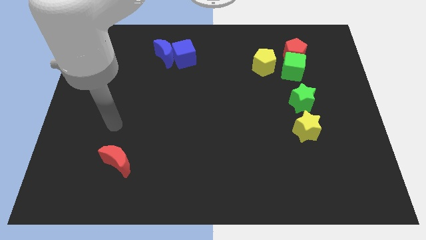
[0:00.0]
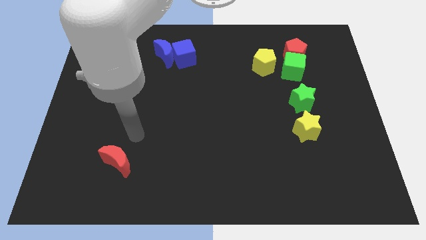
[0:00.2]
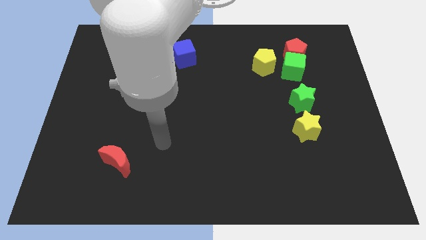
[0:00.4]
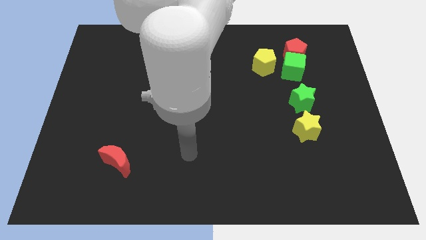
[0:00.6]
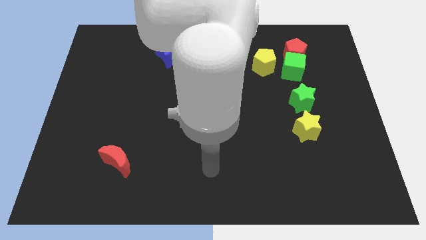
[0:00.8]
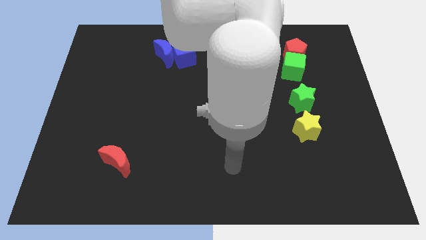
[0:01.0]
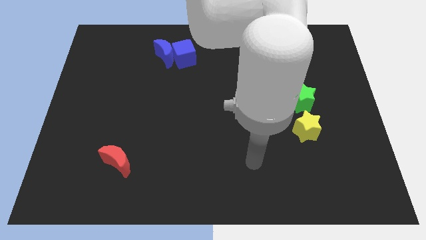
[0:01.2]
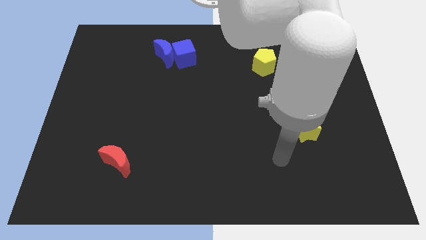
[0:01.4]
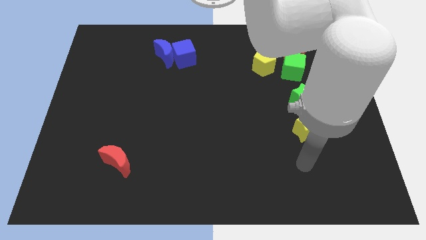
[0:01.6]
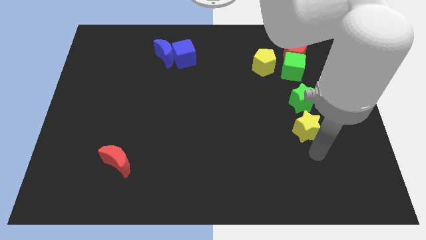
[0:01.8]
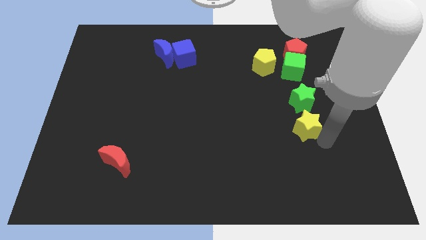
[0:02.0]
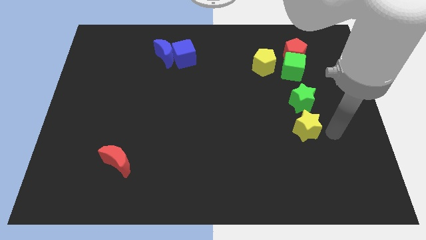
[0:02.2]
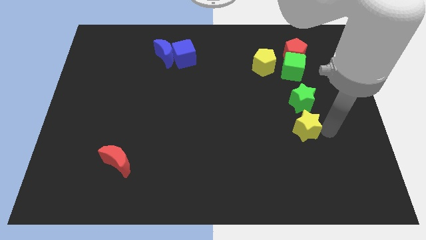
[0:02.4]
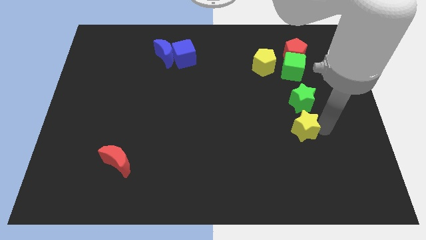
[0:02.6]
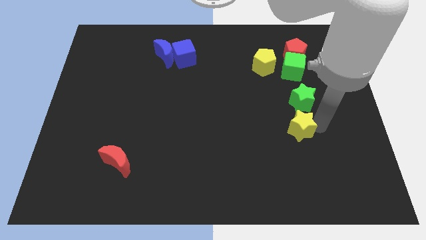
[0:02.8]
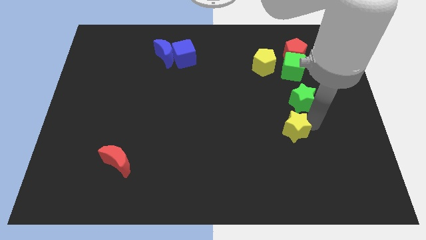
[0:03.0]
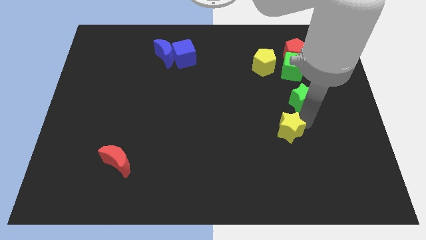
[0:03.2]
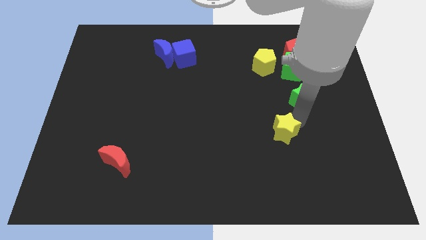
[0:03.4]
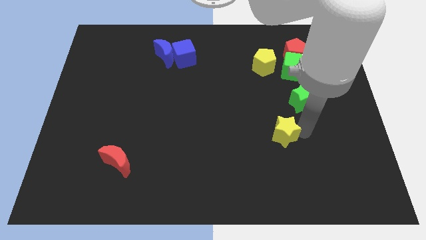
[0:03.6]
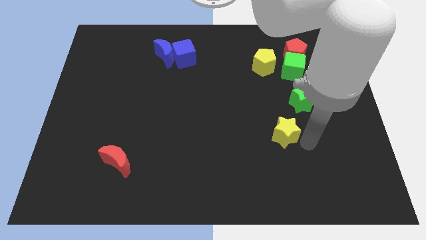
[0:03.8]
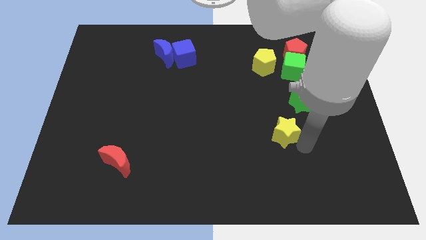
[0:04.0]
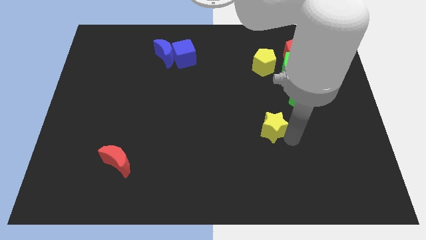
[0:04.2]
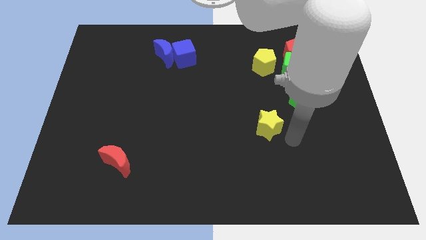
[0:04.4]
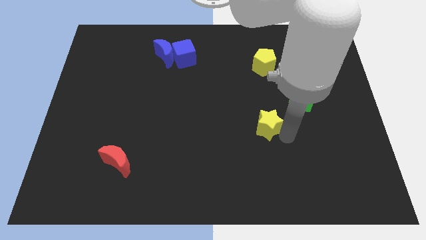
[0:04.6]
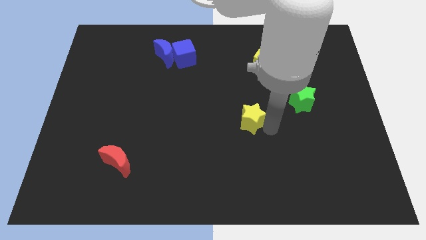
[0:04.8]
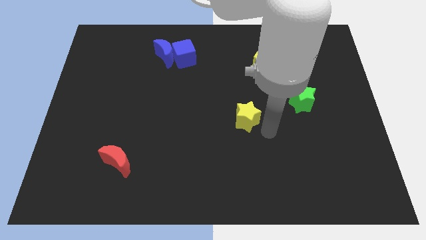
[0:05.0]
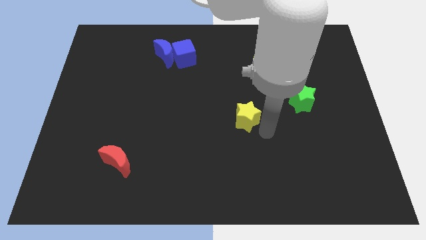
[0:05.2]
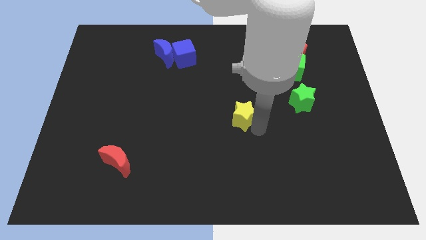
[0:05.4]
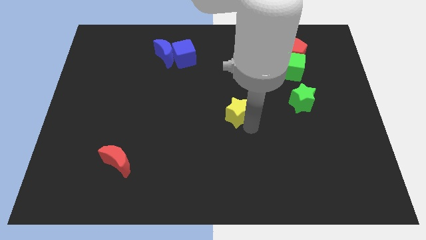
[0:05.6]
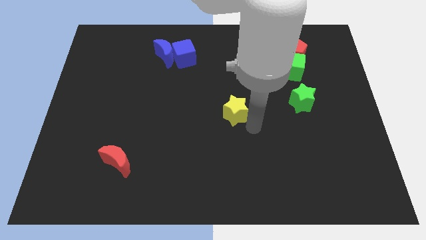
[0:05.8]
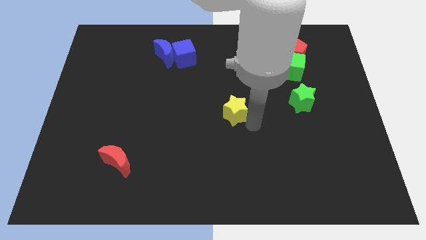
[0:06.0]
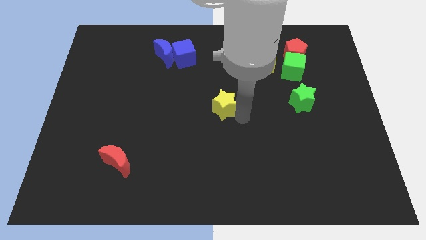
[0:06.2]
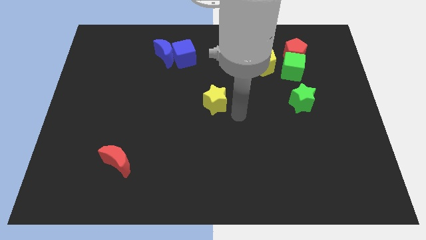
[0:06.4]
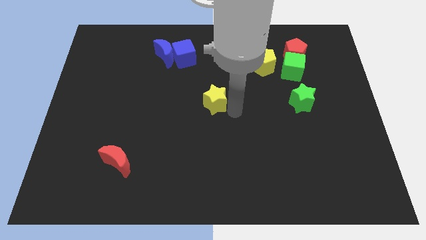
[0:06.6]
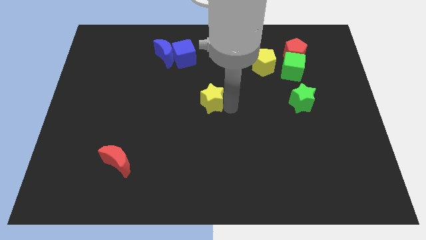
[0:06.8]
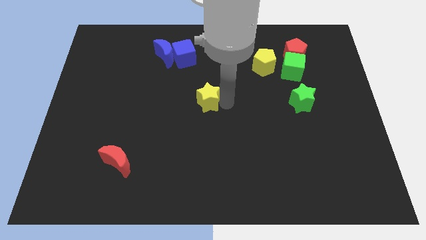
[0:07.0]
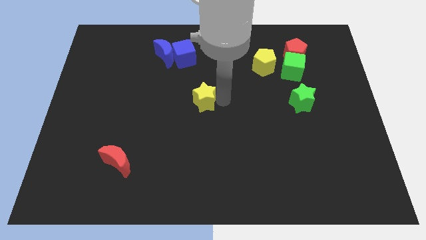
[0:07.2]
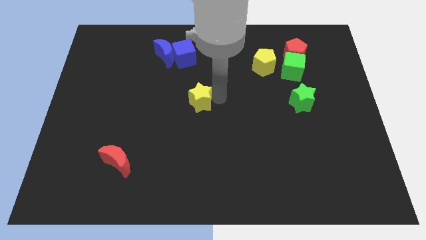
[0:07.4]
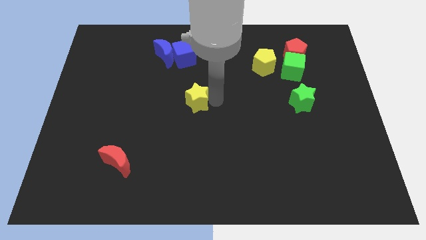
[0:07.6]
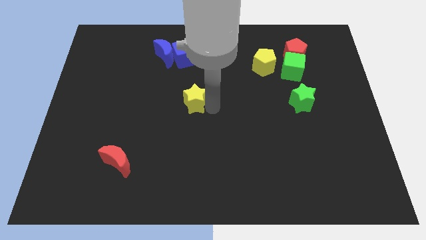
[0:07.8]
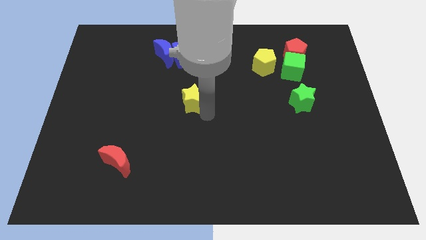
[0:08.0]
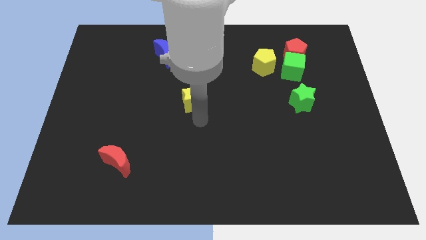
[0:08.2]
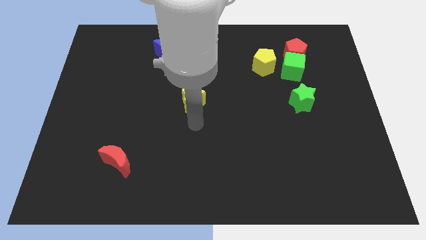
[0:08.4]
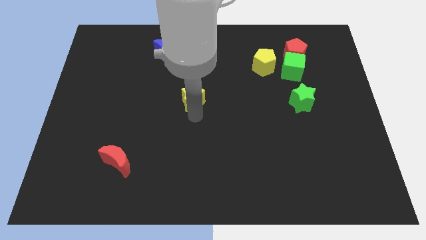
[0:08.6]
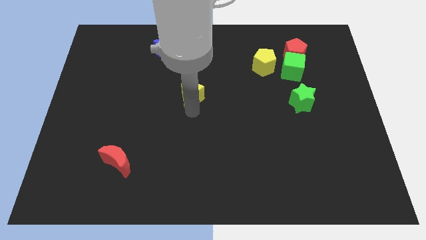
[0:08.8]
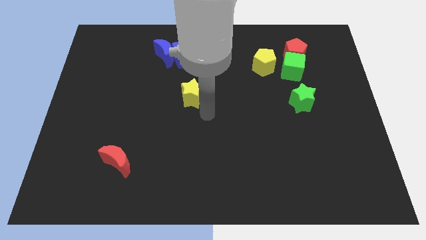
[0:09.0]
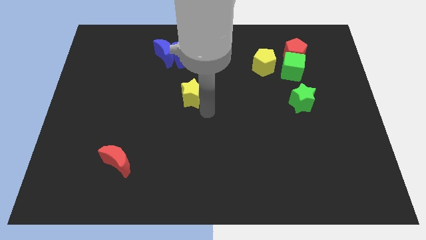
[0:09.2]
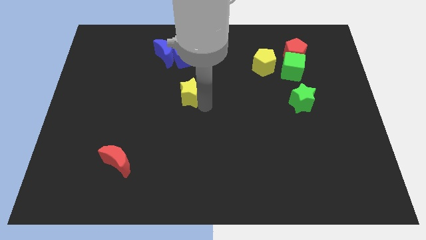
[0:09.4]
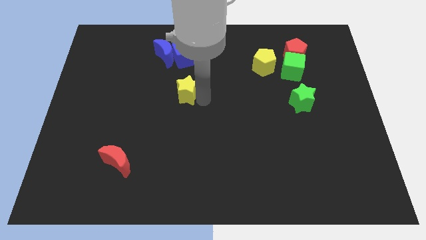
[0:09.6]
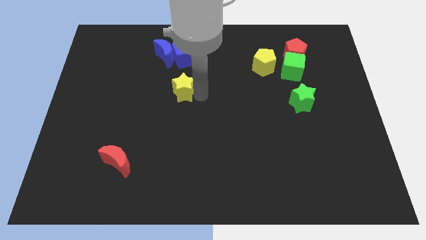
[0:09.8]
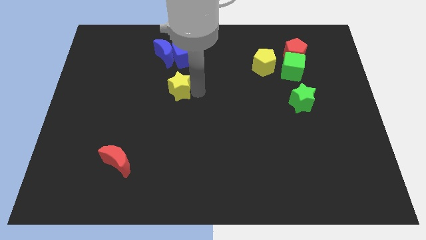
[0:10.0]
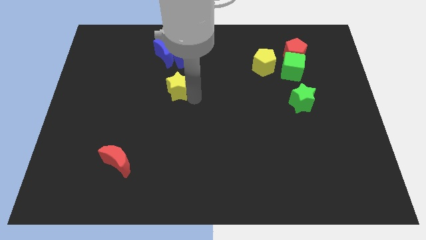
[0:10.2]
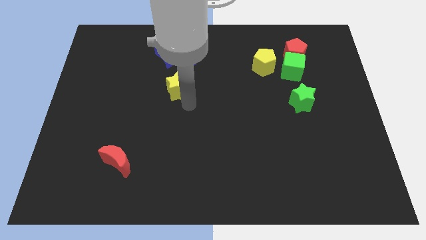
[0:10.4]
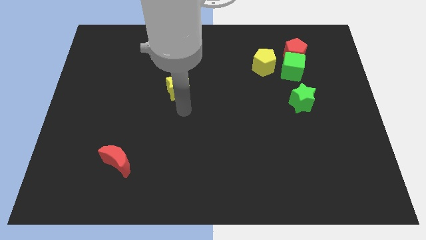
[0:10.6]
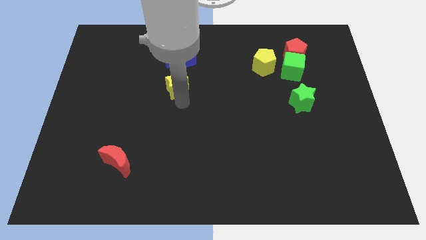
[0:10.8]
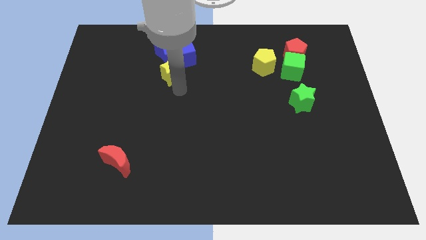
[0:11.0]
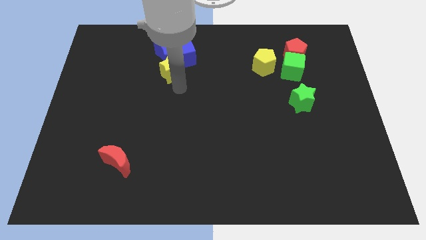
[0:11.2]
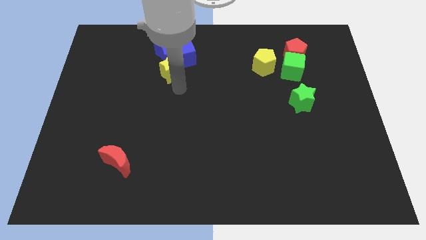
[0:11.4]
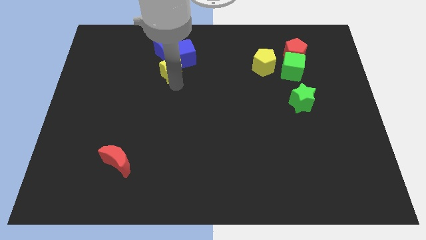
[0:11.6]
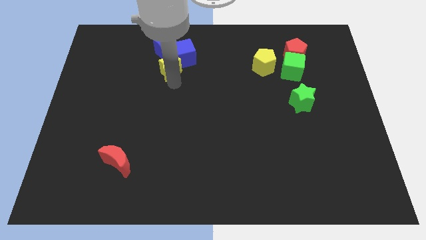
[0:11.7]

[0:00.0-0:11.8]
slide the yellow star close to the blue moon

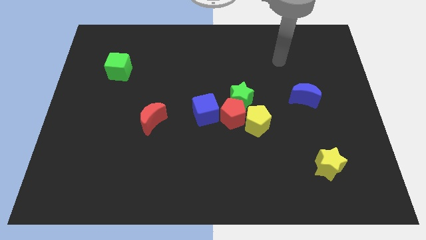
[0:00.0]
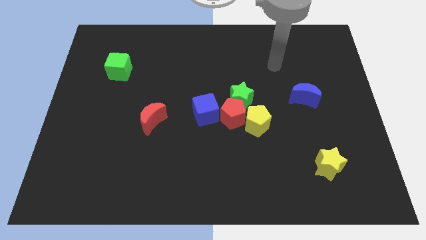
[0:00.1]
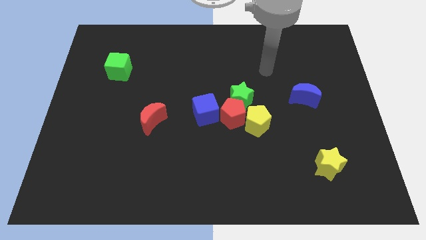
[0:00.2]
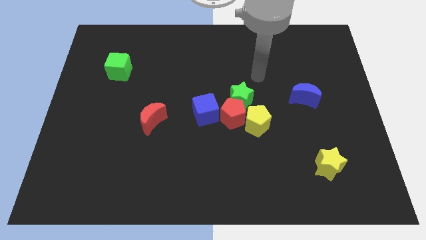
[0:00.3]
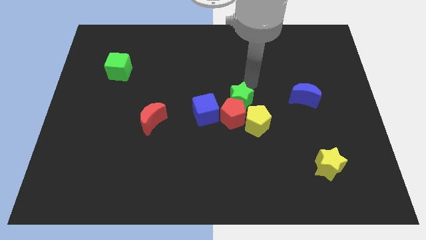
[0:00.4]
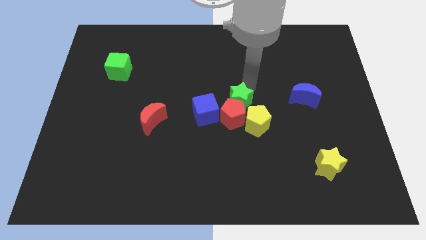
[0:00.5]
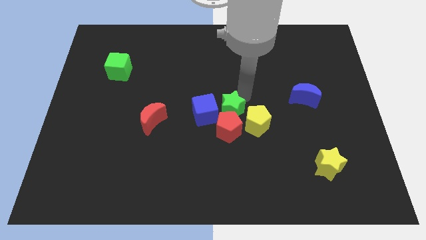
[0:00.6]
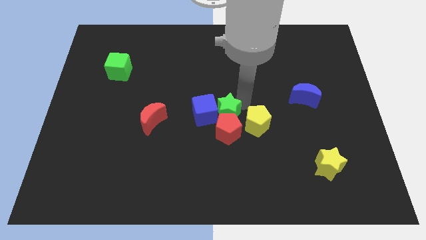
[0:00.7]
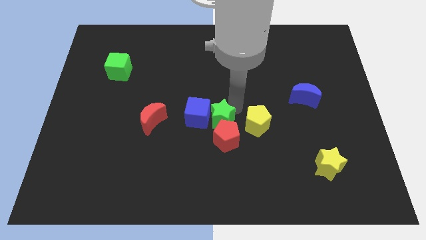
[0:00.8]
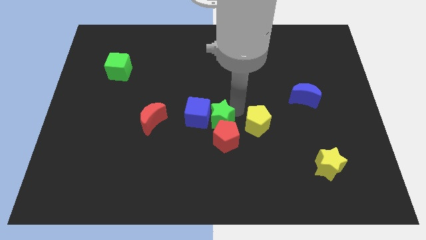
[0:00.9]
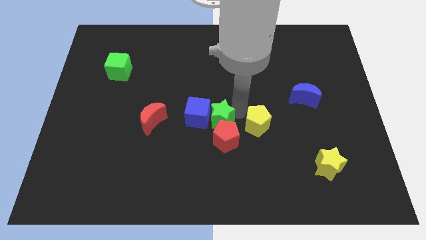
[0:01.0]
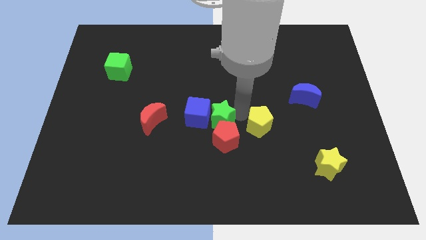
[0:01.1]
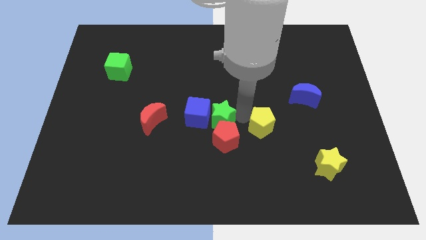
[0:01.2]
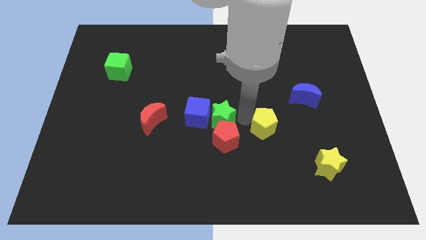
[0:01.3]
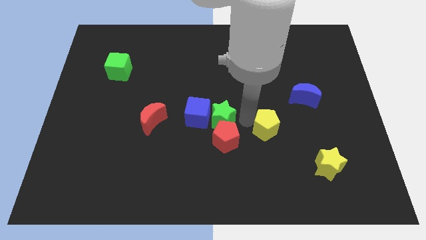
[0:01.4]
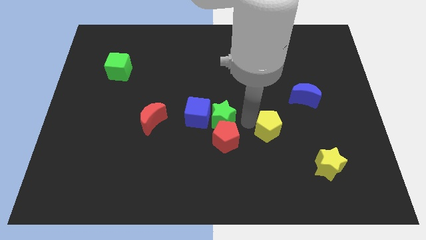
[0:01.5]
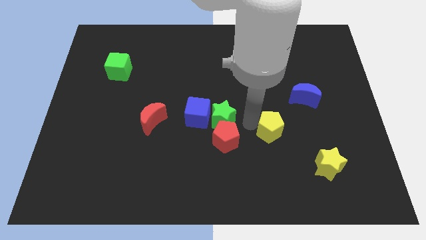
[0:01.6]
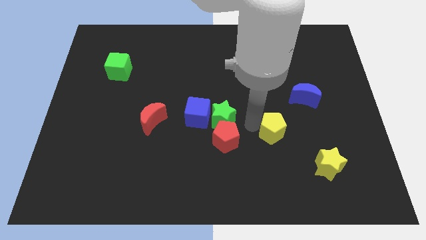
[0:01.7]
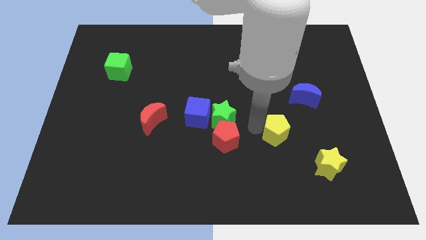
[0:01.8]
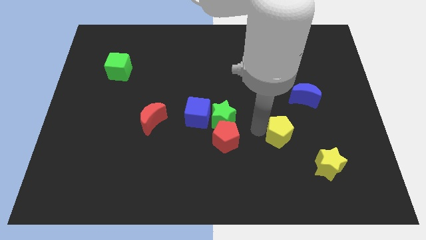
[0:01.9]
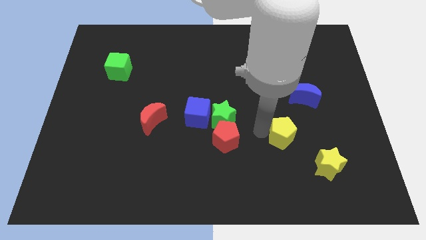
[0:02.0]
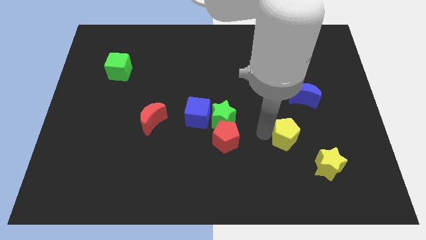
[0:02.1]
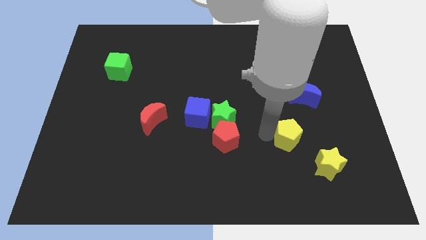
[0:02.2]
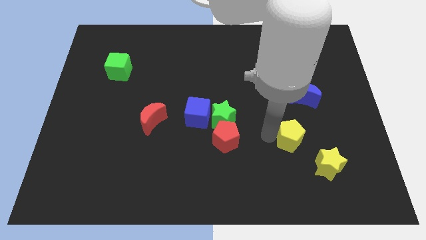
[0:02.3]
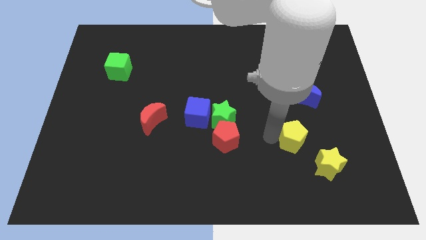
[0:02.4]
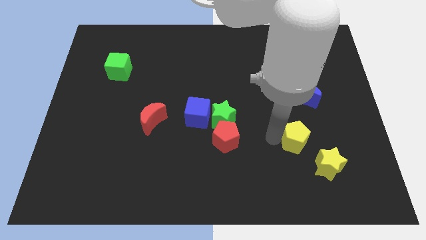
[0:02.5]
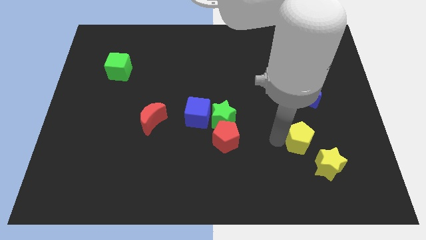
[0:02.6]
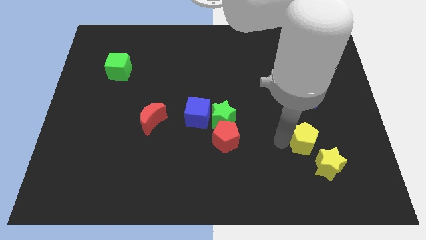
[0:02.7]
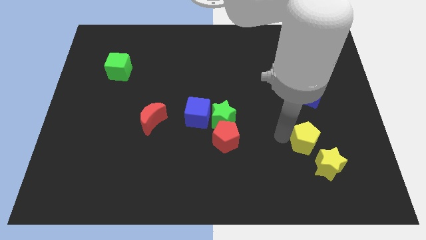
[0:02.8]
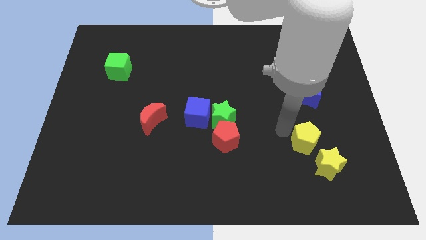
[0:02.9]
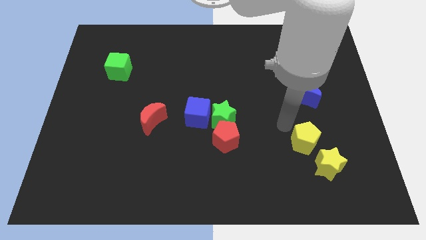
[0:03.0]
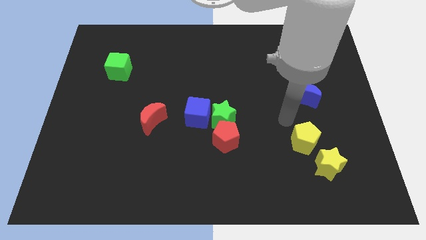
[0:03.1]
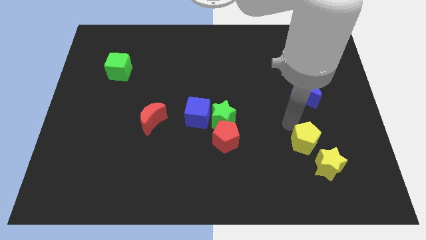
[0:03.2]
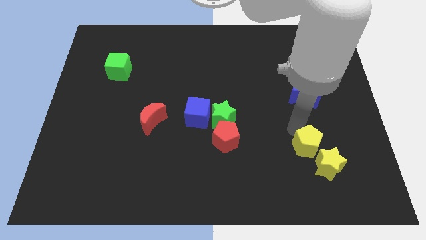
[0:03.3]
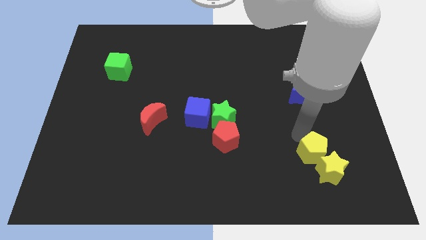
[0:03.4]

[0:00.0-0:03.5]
slide the yellow pentagon towards the yellow star
